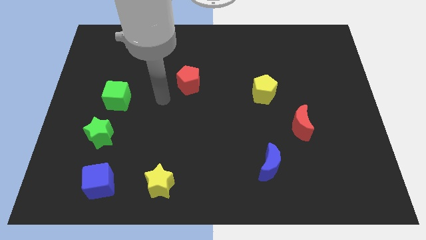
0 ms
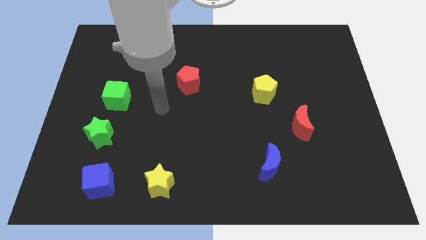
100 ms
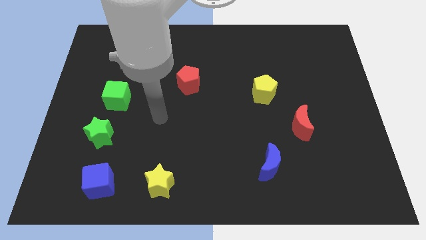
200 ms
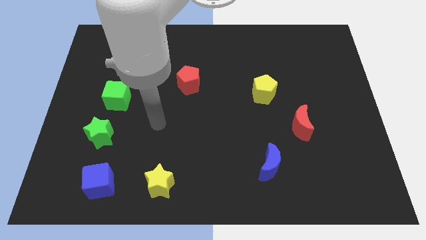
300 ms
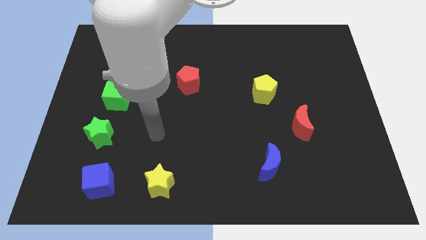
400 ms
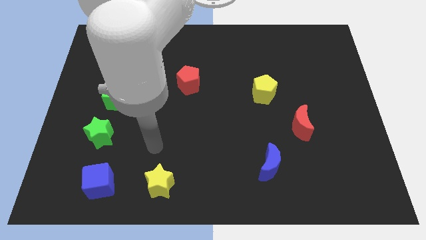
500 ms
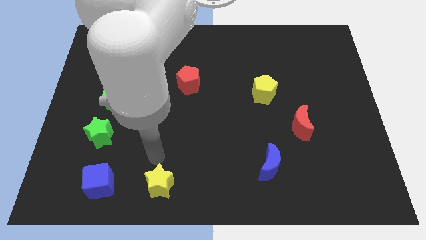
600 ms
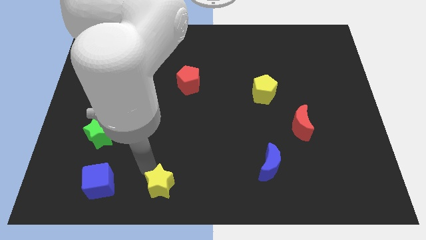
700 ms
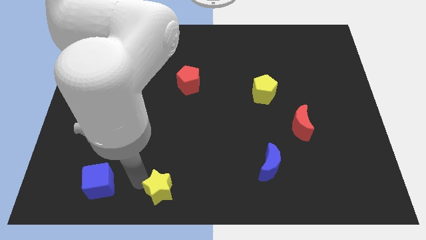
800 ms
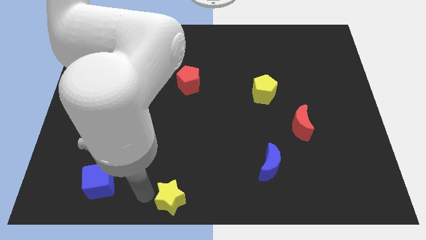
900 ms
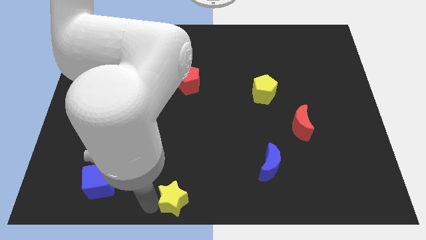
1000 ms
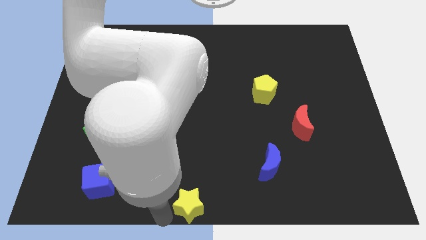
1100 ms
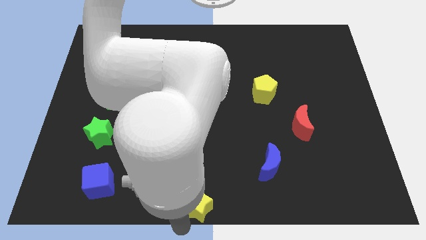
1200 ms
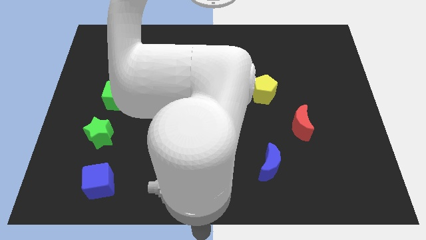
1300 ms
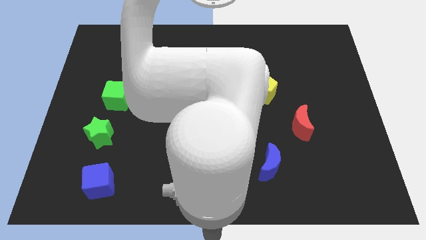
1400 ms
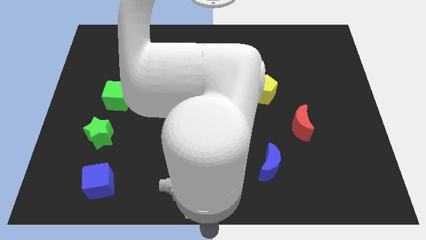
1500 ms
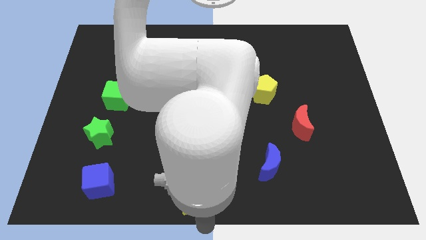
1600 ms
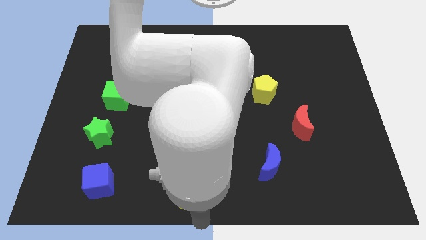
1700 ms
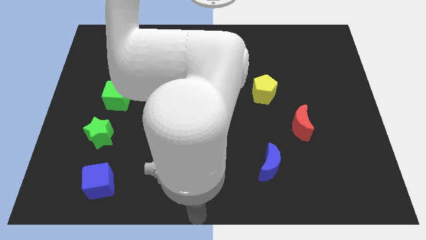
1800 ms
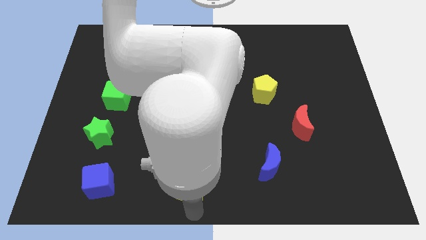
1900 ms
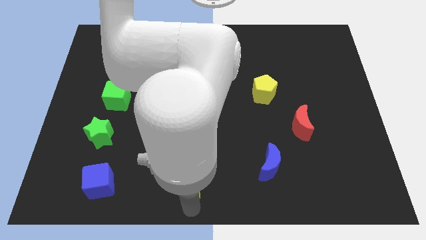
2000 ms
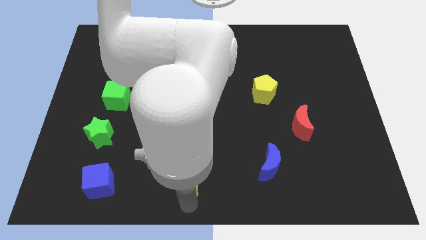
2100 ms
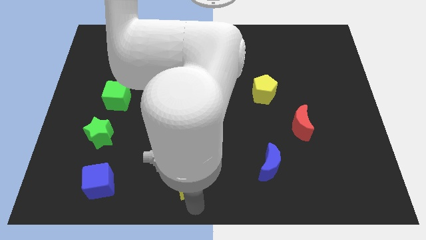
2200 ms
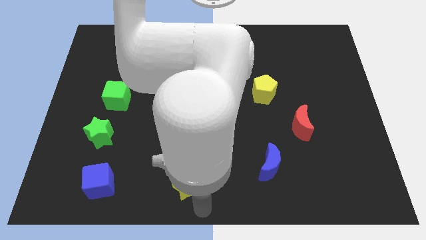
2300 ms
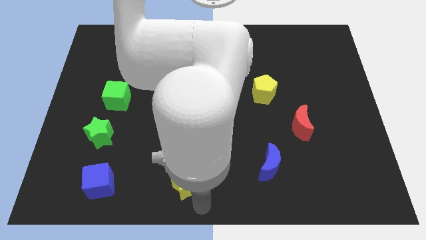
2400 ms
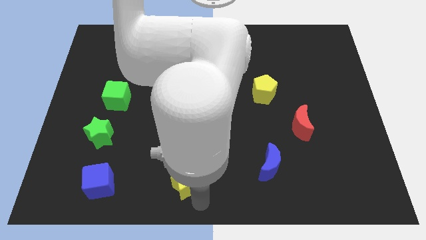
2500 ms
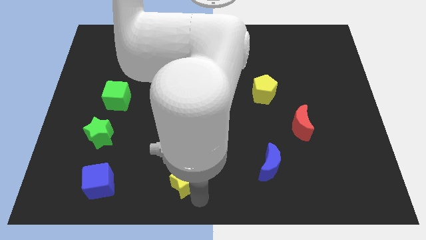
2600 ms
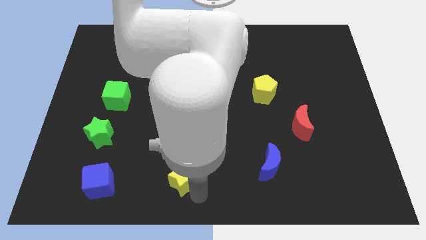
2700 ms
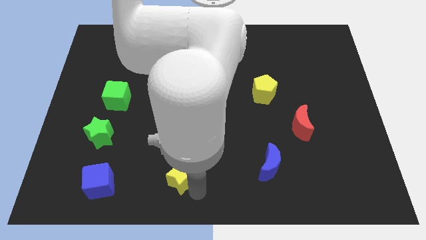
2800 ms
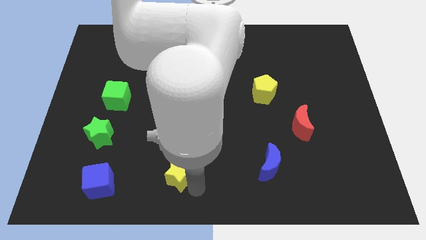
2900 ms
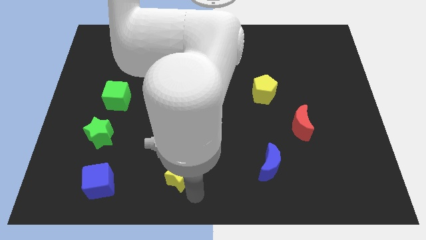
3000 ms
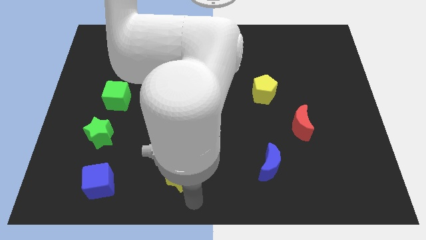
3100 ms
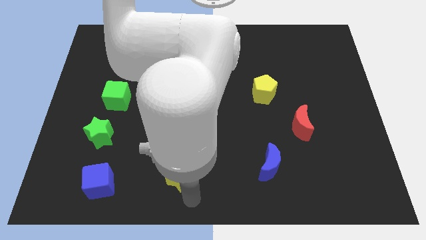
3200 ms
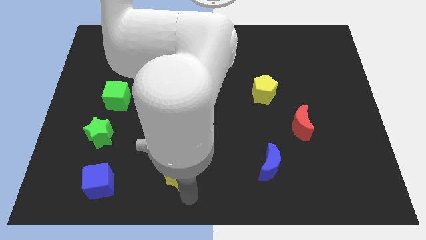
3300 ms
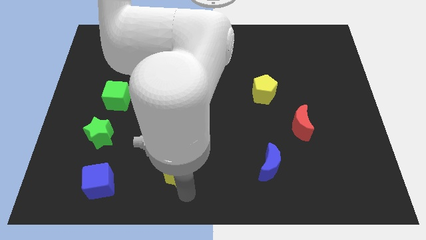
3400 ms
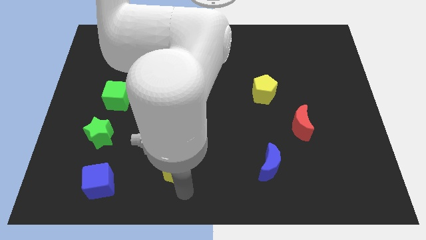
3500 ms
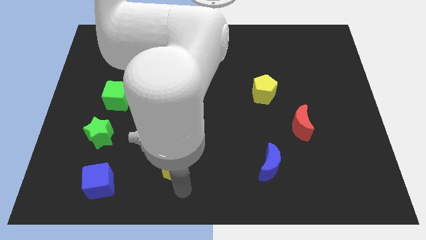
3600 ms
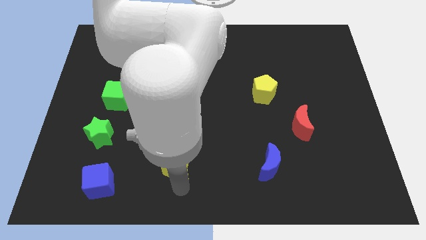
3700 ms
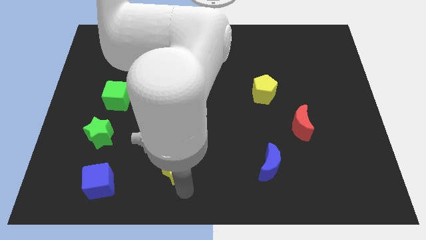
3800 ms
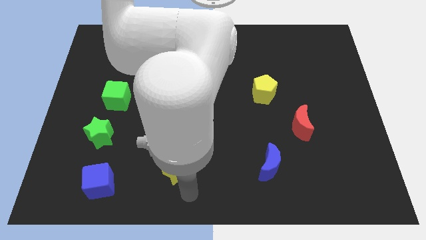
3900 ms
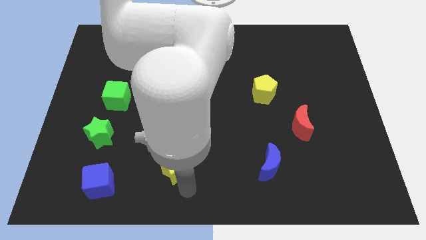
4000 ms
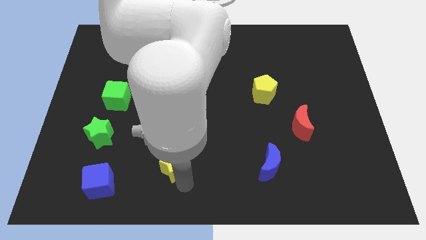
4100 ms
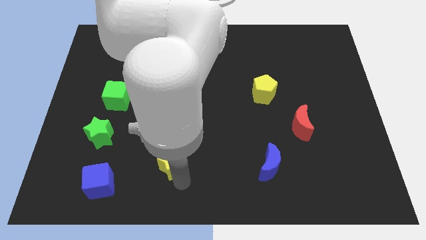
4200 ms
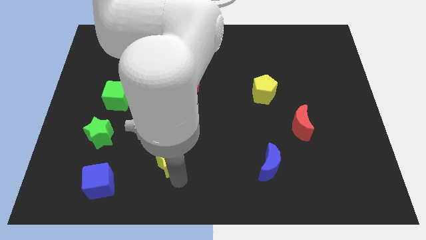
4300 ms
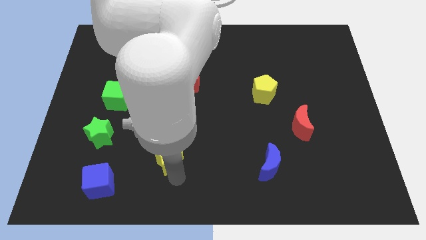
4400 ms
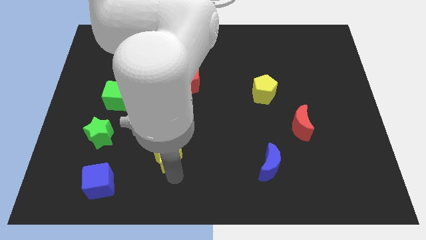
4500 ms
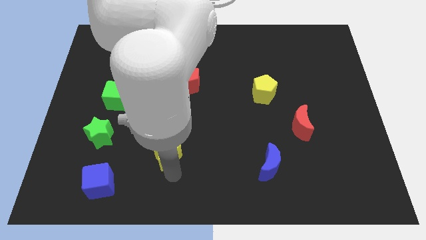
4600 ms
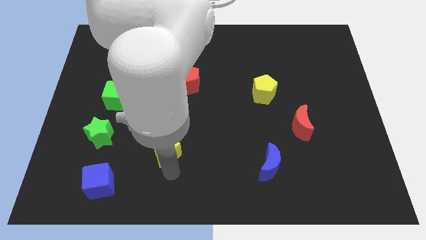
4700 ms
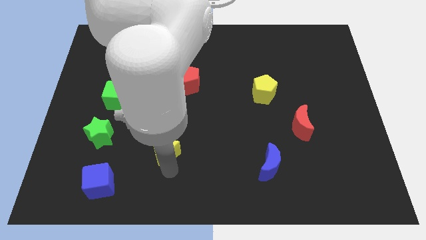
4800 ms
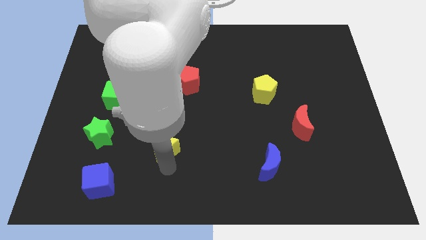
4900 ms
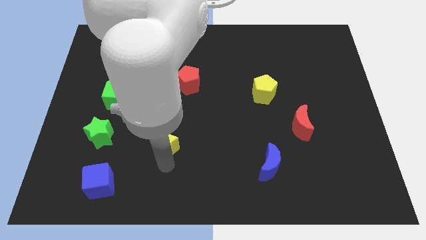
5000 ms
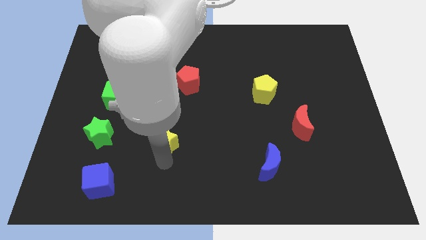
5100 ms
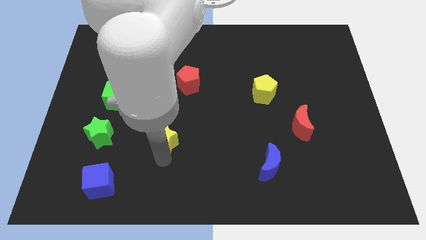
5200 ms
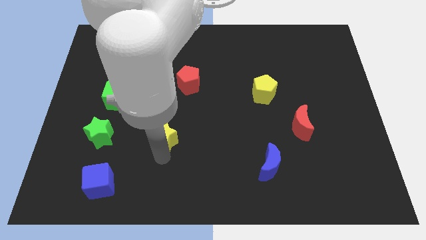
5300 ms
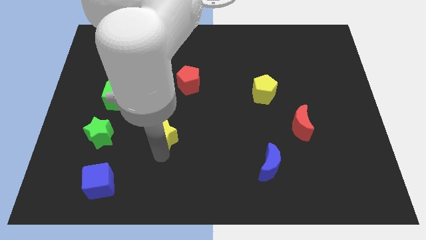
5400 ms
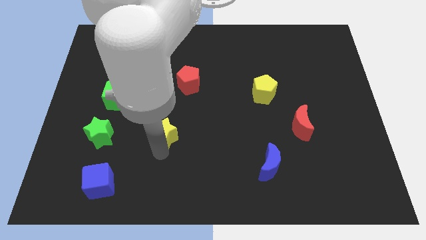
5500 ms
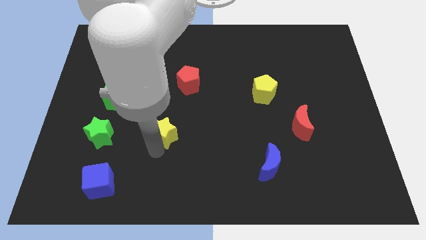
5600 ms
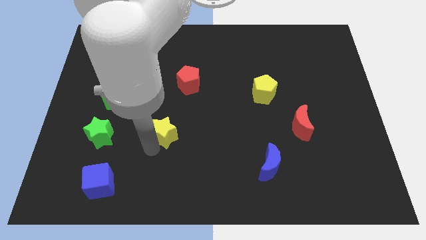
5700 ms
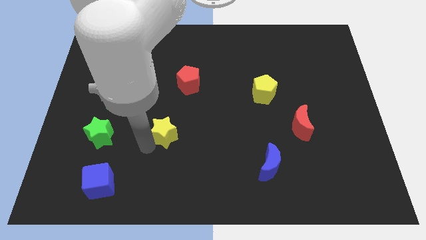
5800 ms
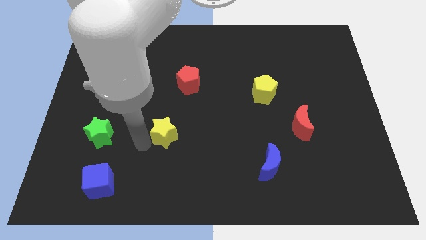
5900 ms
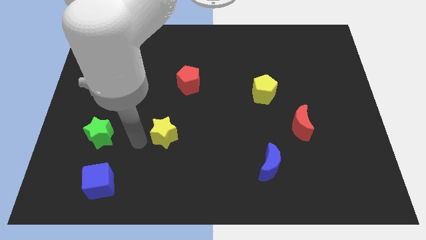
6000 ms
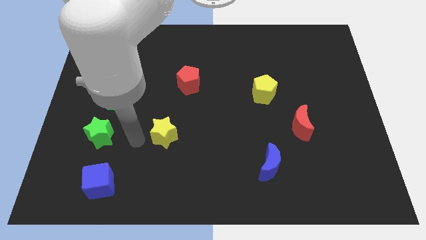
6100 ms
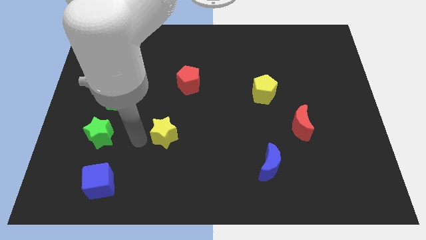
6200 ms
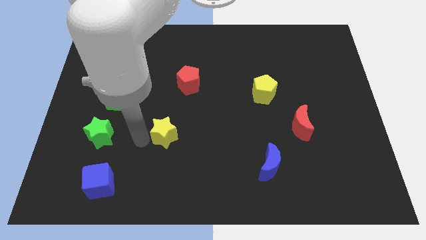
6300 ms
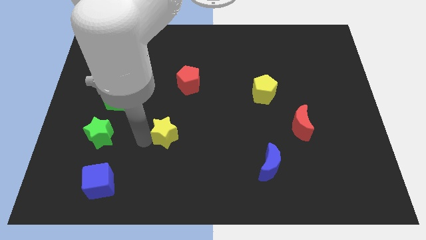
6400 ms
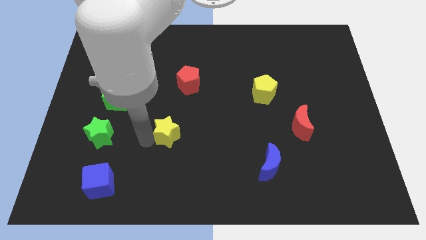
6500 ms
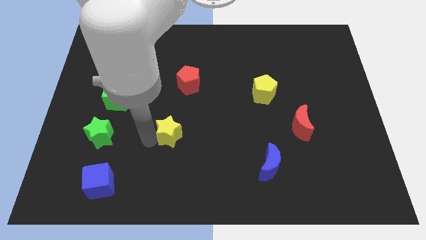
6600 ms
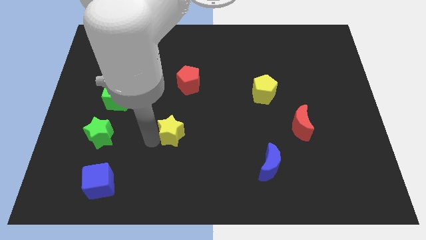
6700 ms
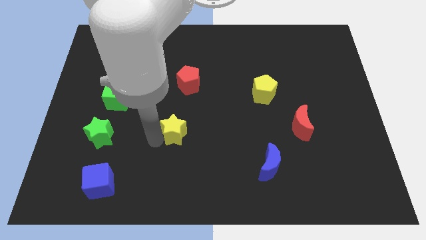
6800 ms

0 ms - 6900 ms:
move the yellow star to the center
